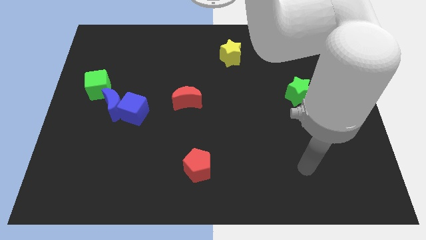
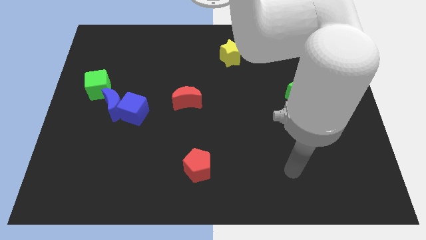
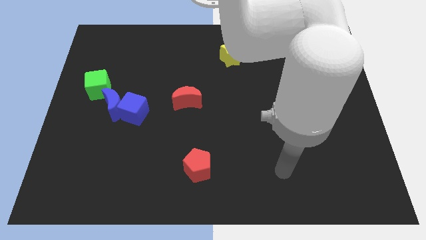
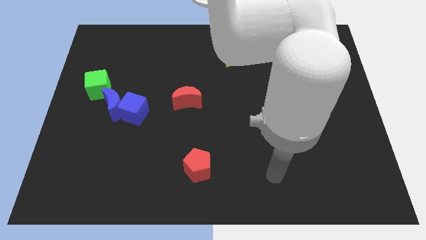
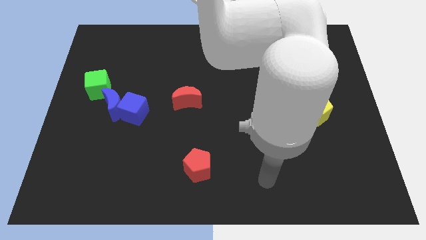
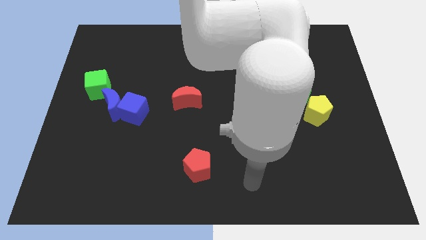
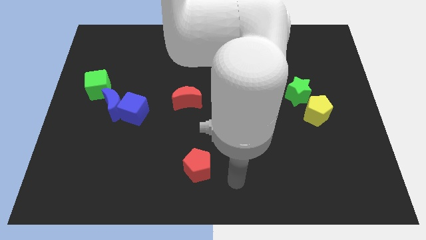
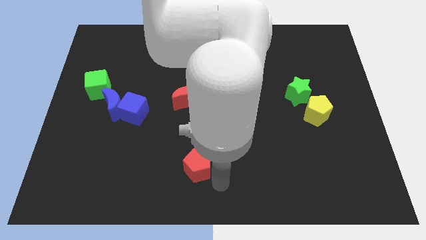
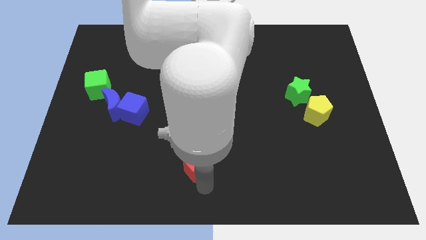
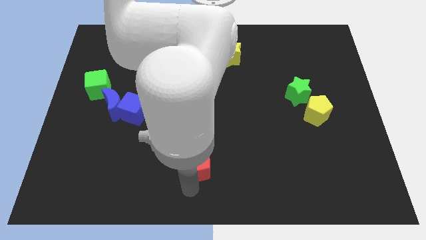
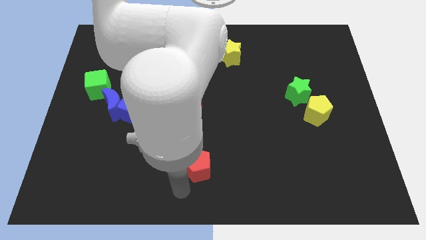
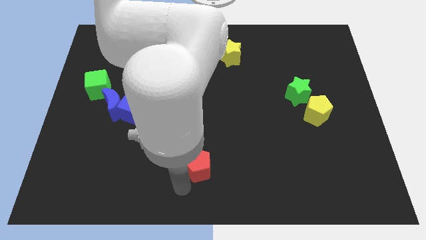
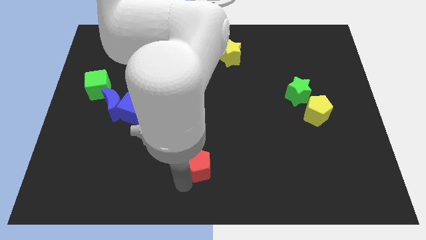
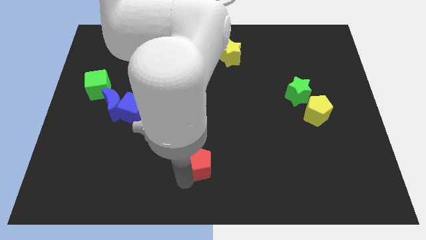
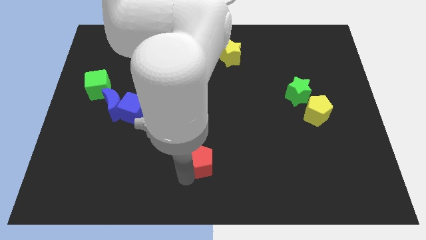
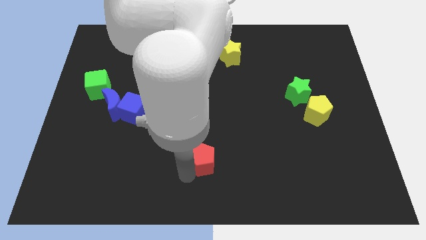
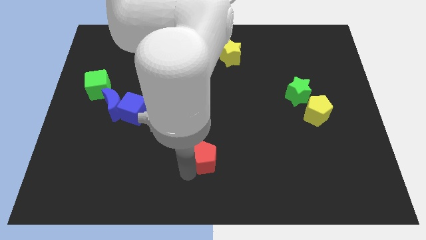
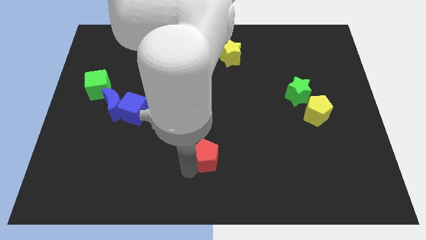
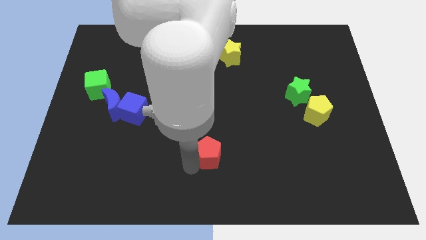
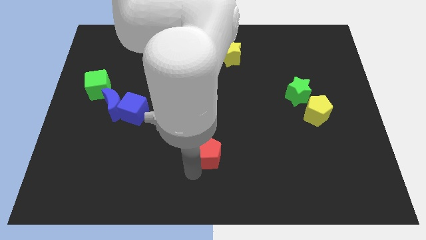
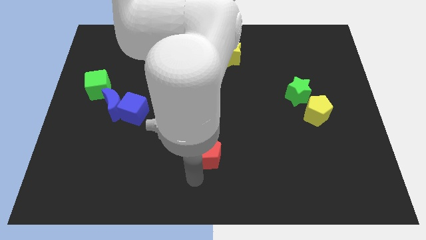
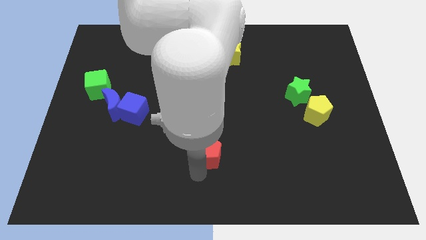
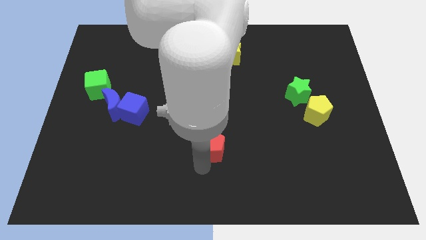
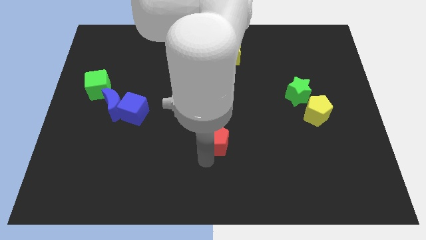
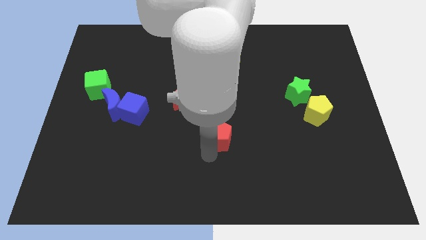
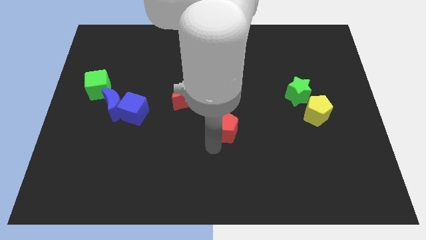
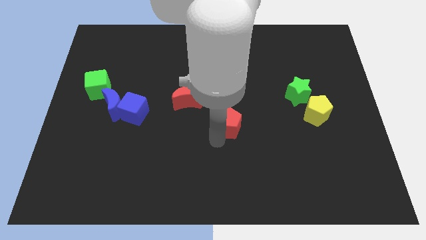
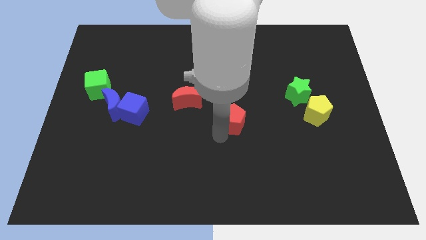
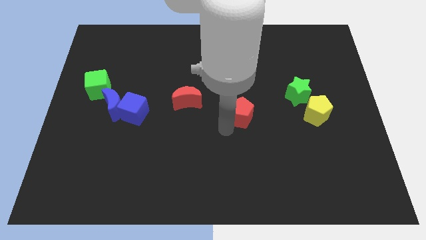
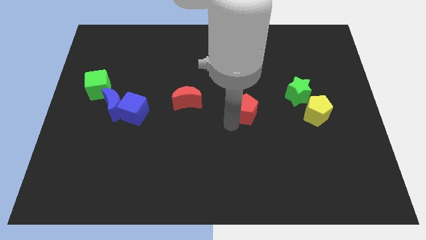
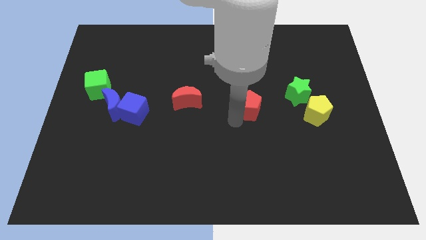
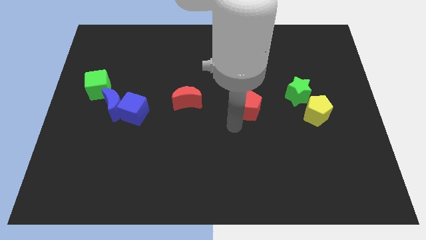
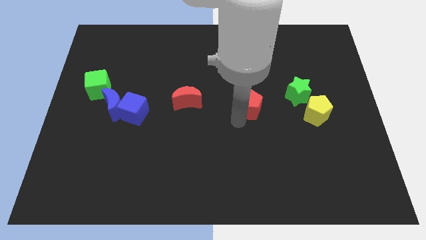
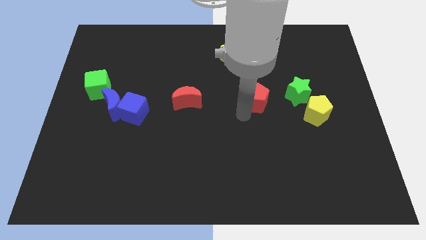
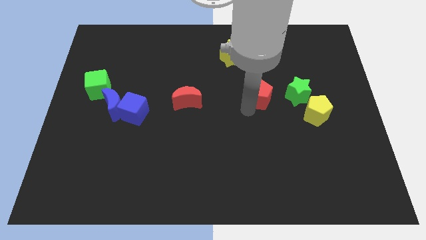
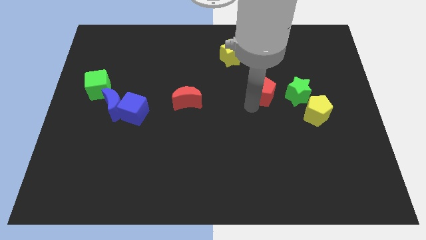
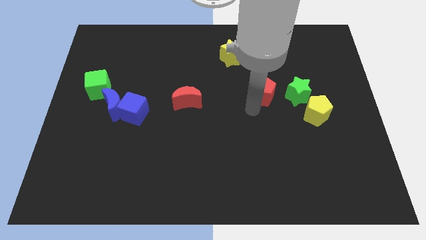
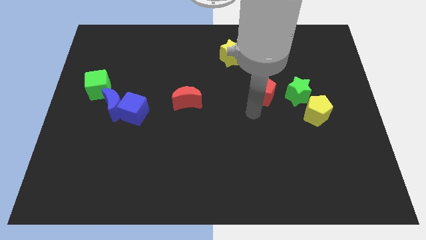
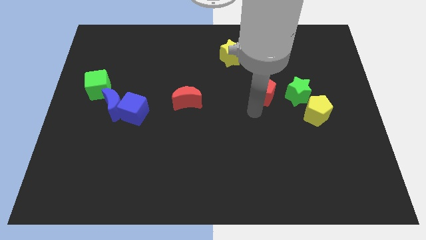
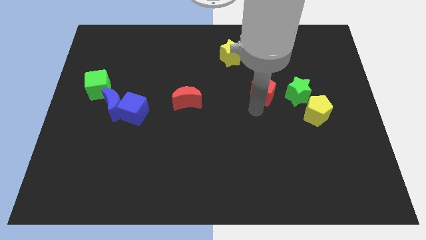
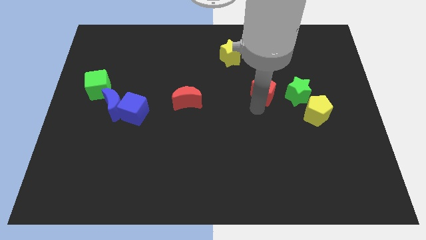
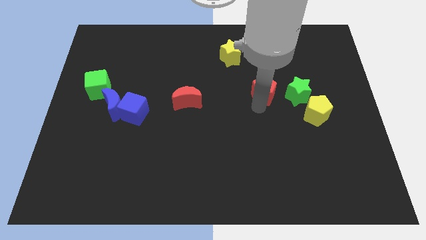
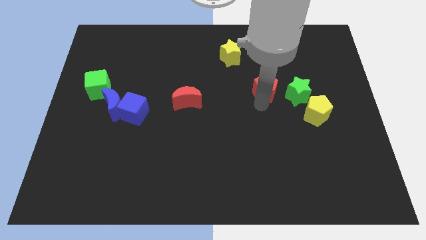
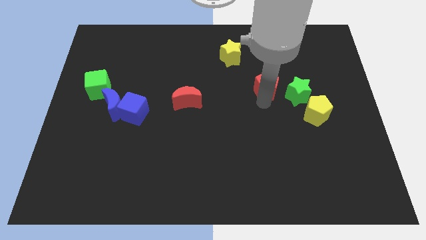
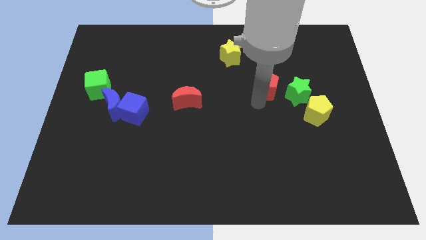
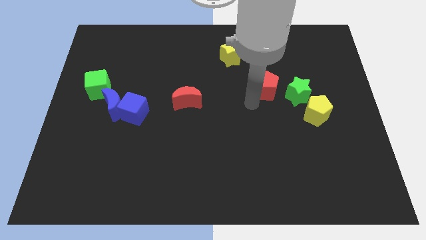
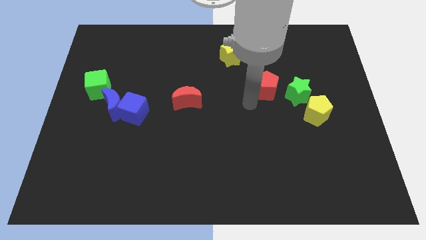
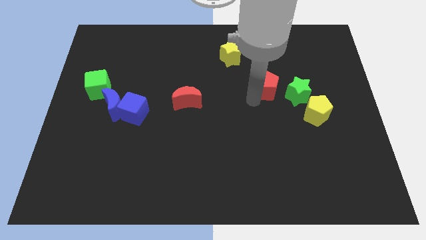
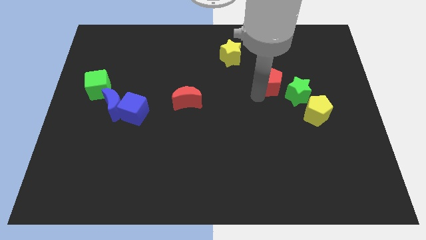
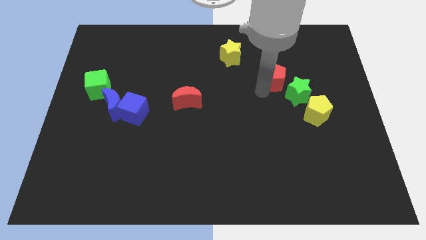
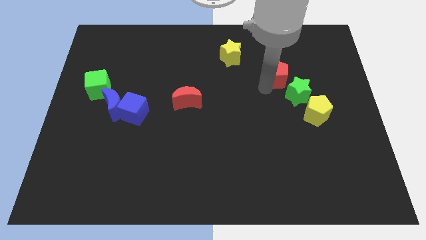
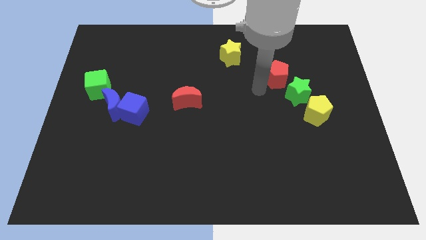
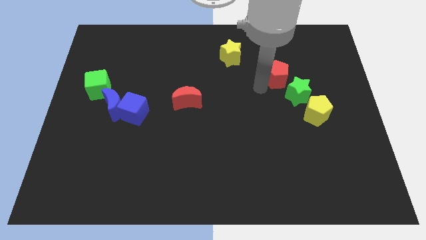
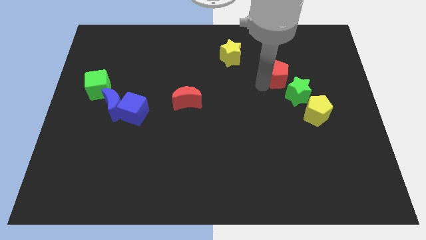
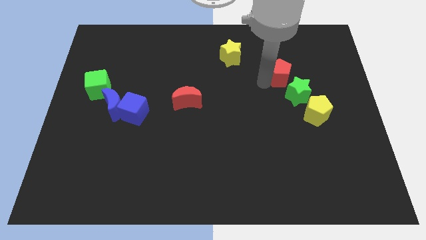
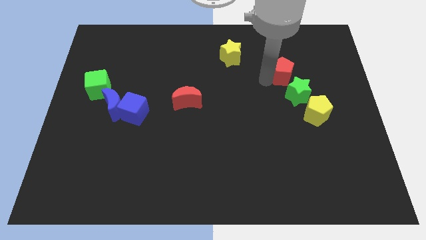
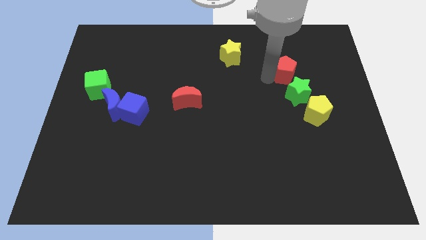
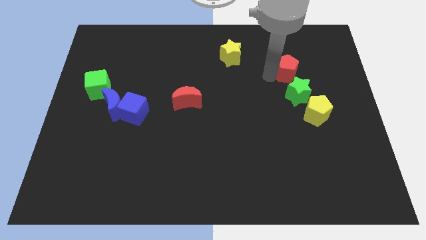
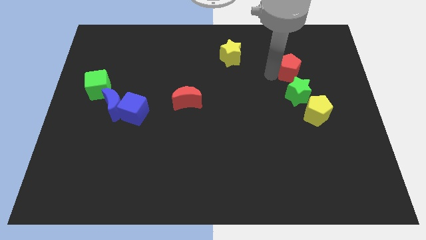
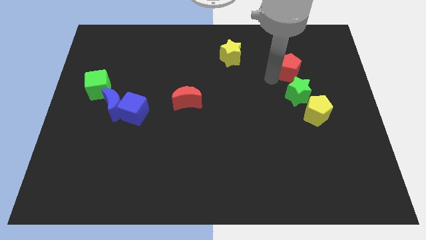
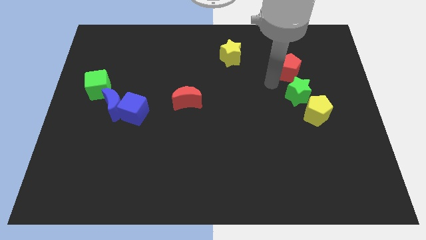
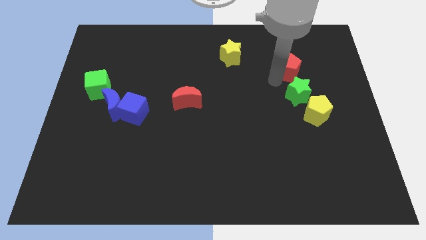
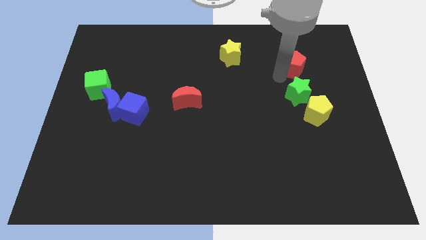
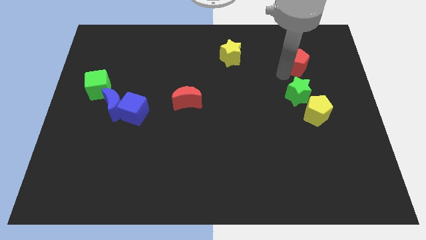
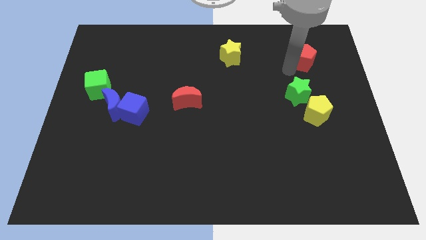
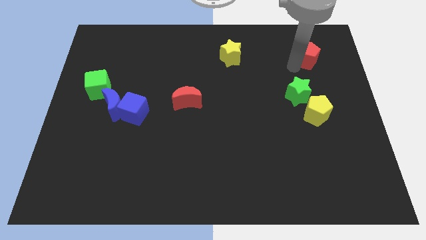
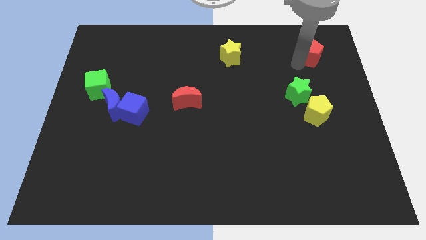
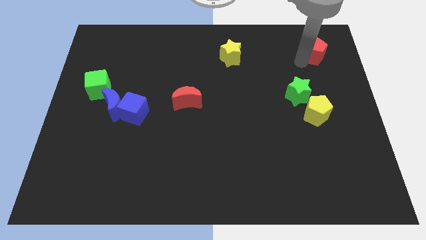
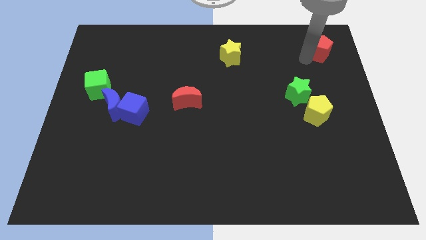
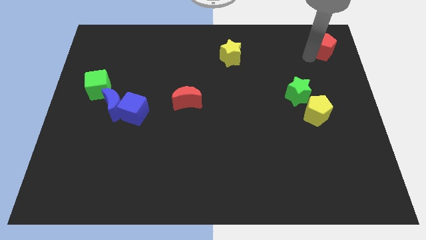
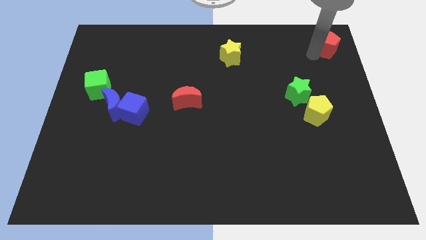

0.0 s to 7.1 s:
move the red pentagon to the top right of the board
